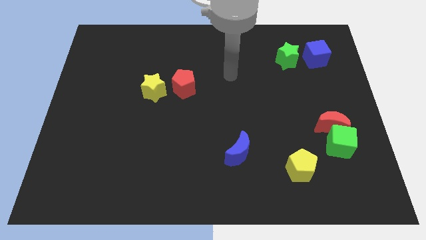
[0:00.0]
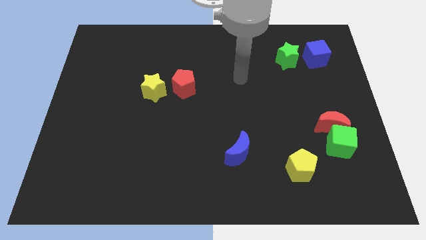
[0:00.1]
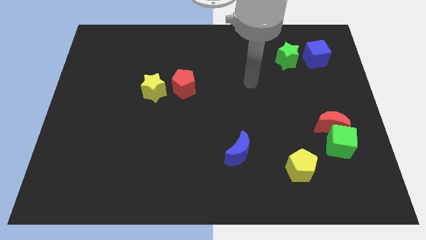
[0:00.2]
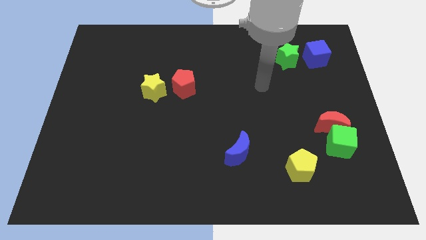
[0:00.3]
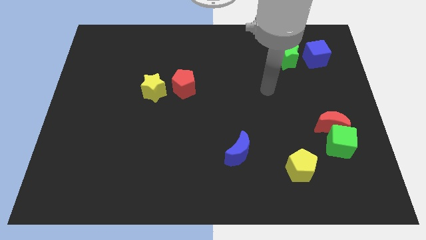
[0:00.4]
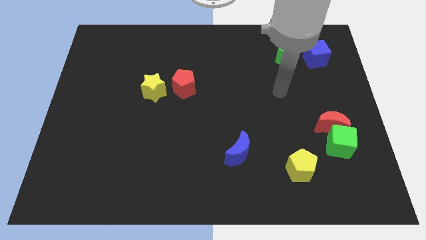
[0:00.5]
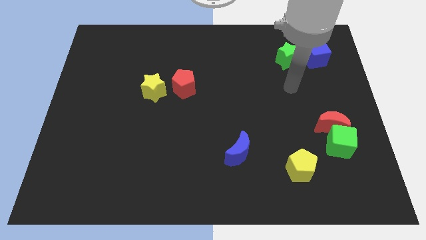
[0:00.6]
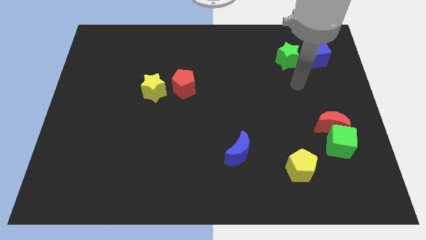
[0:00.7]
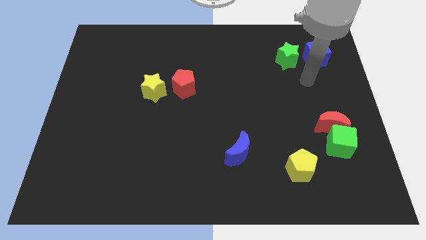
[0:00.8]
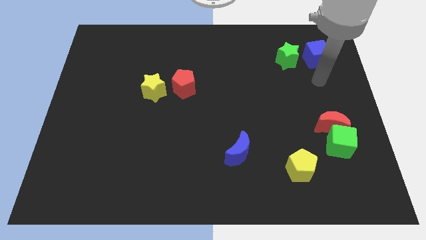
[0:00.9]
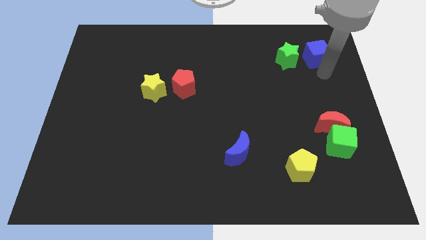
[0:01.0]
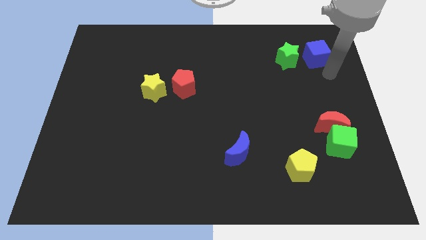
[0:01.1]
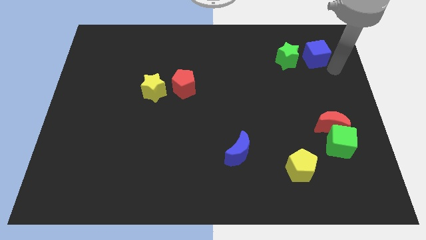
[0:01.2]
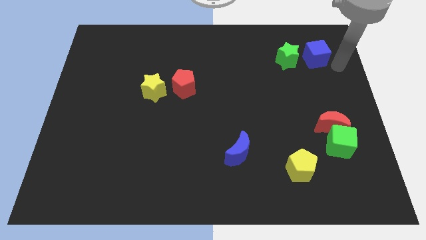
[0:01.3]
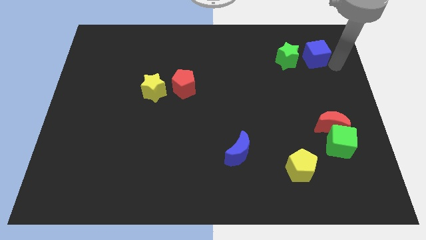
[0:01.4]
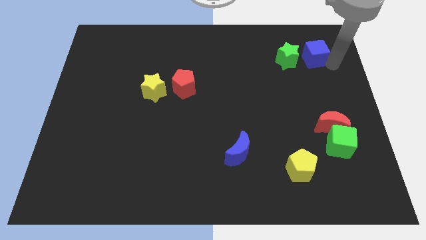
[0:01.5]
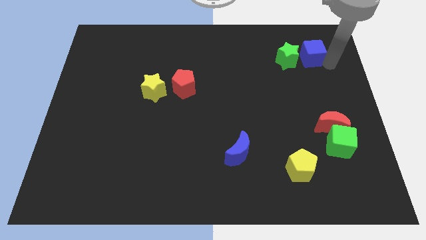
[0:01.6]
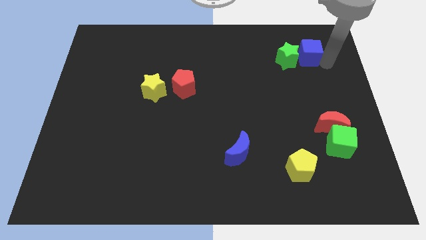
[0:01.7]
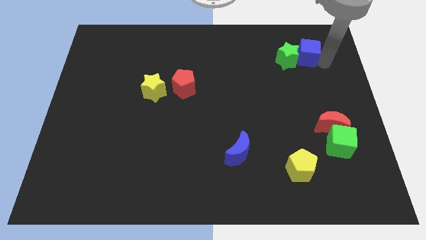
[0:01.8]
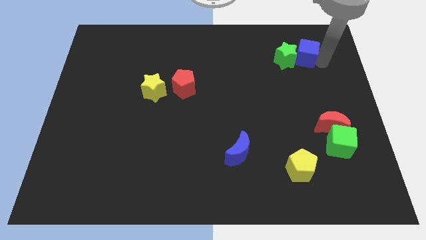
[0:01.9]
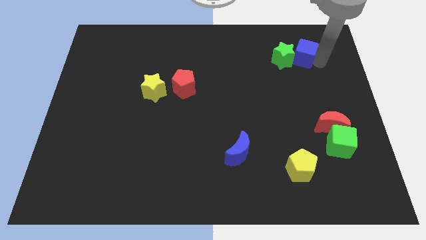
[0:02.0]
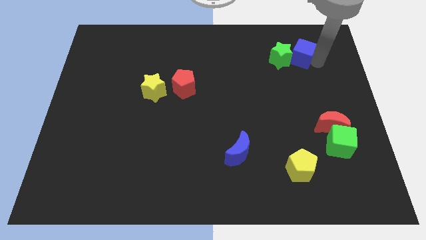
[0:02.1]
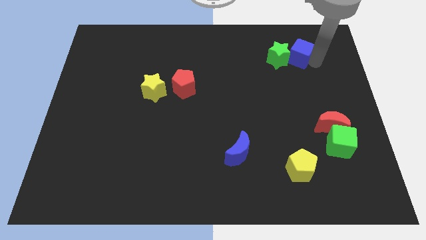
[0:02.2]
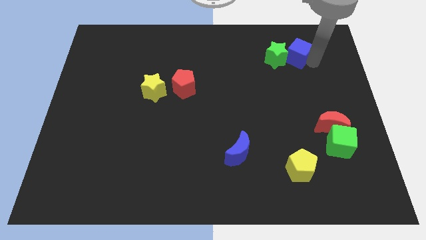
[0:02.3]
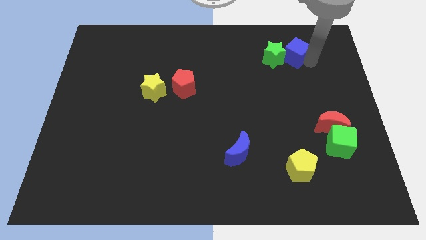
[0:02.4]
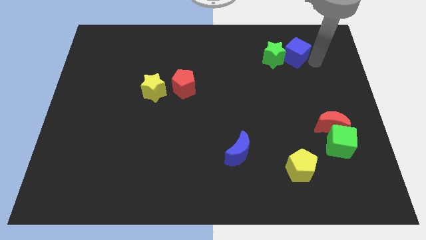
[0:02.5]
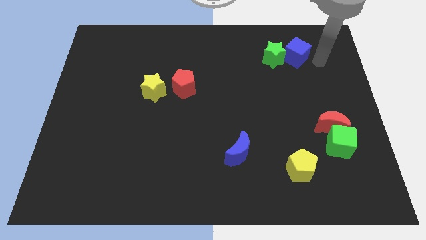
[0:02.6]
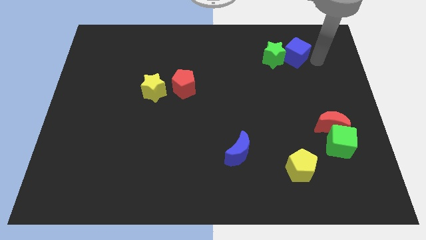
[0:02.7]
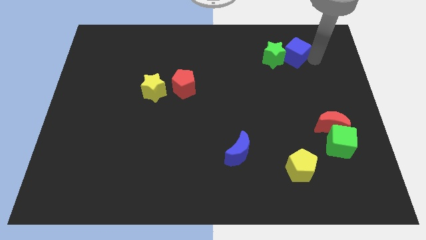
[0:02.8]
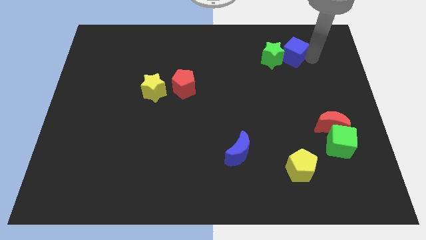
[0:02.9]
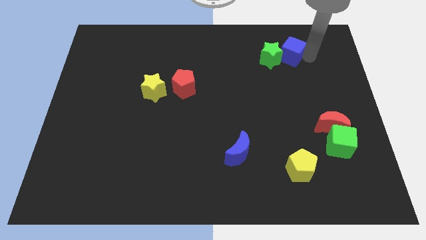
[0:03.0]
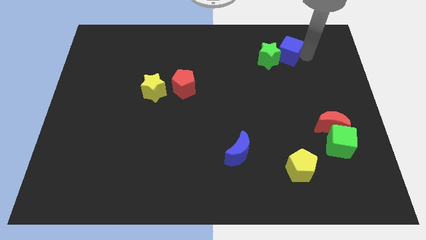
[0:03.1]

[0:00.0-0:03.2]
slightly move the blue cube left

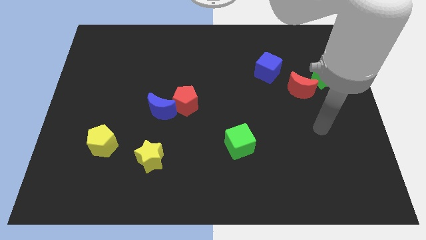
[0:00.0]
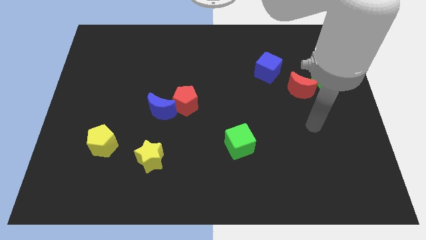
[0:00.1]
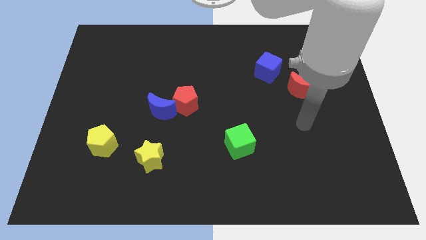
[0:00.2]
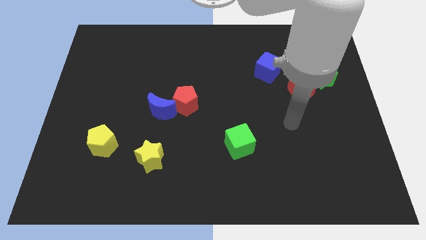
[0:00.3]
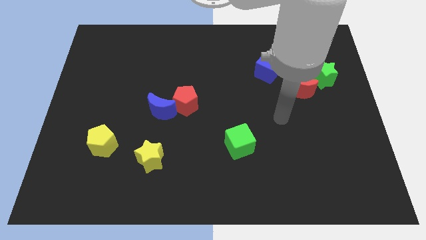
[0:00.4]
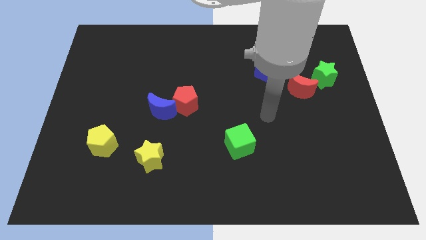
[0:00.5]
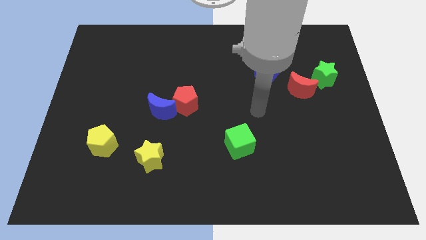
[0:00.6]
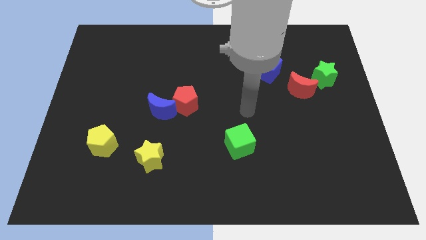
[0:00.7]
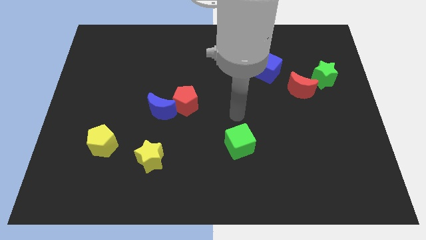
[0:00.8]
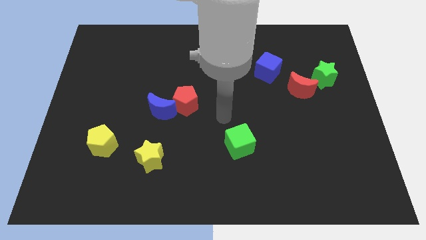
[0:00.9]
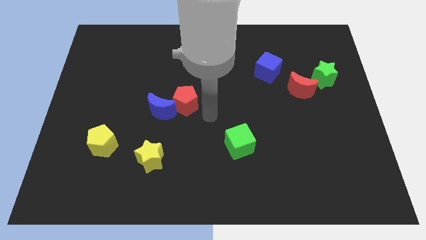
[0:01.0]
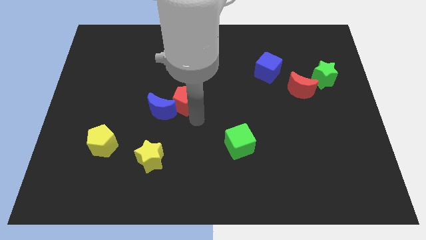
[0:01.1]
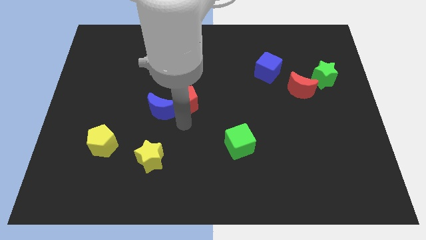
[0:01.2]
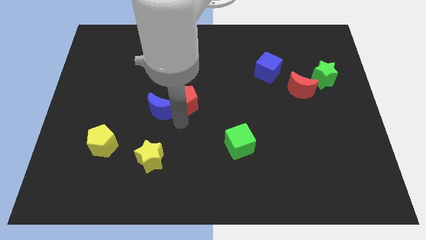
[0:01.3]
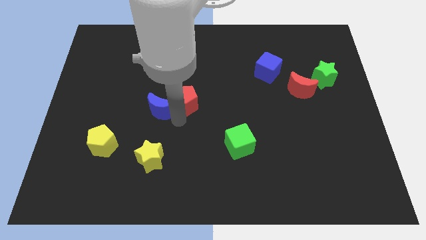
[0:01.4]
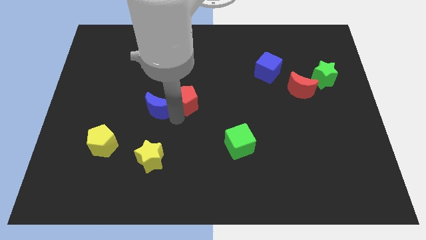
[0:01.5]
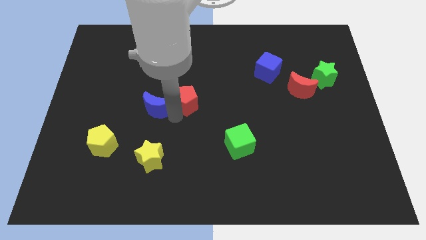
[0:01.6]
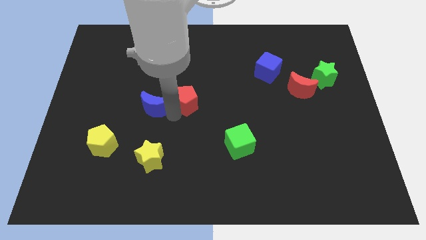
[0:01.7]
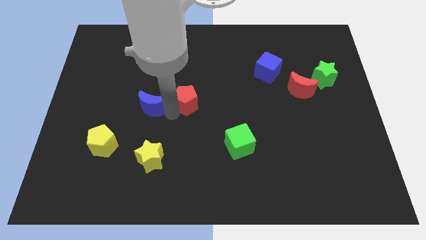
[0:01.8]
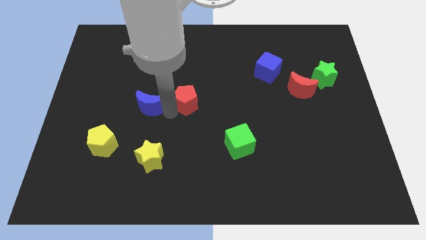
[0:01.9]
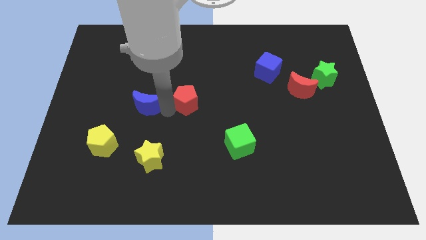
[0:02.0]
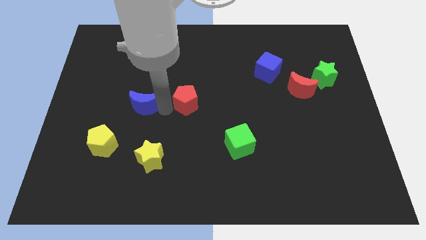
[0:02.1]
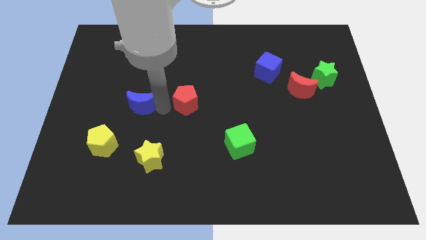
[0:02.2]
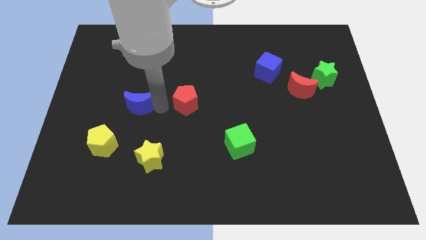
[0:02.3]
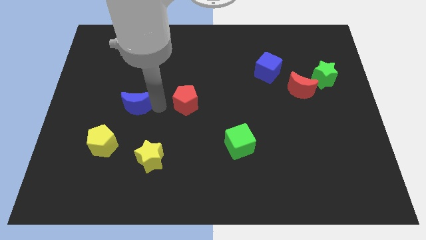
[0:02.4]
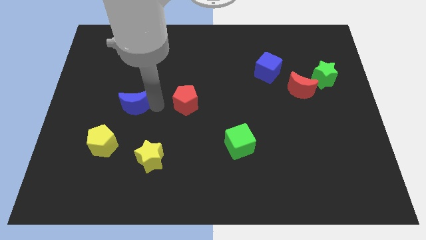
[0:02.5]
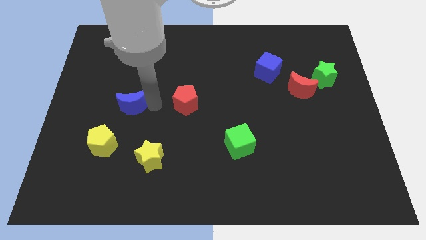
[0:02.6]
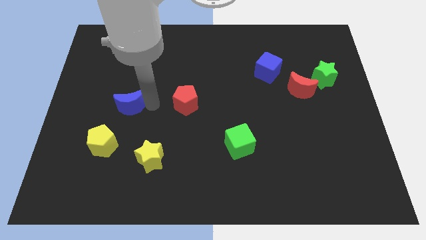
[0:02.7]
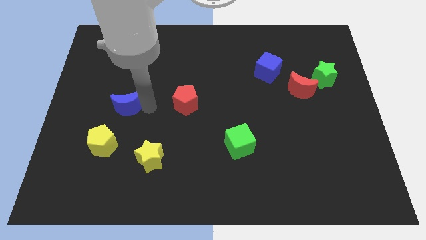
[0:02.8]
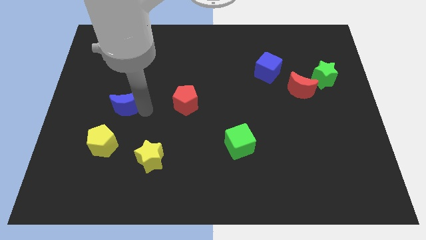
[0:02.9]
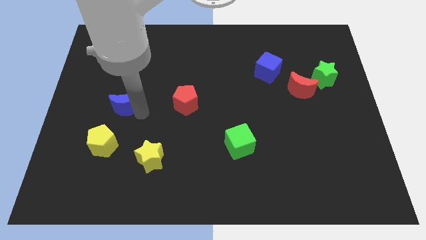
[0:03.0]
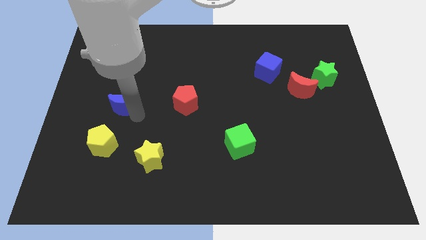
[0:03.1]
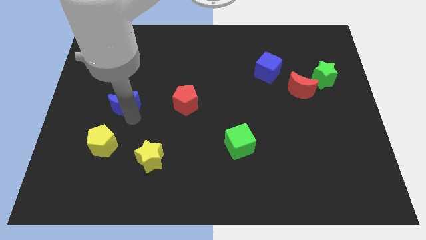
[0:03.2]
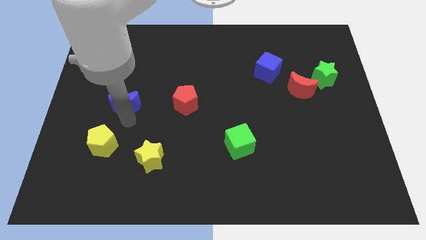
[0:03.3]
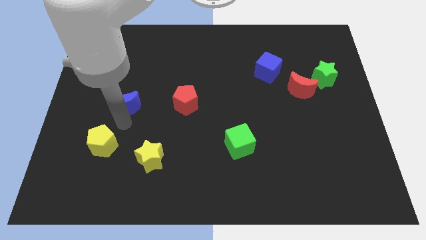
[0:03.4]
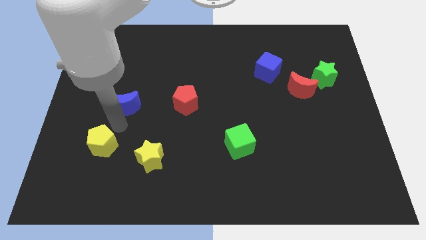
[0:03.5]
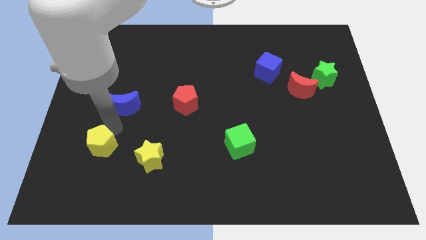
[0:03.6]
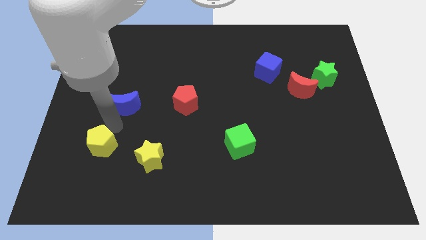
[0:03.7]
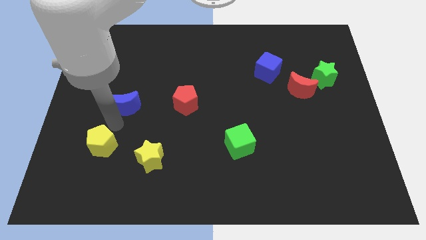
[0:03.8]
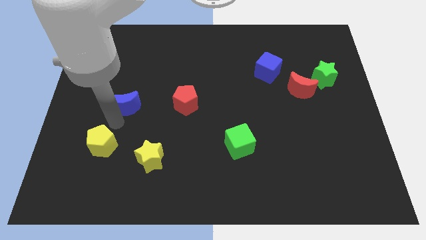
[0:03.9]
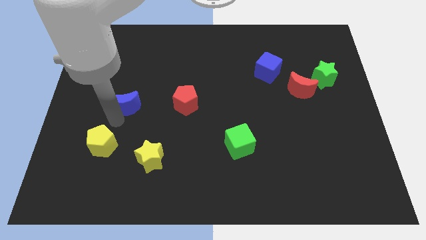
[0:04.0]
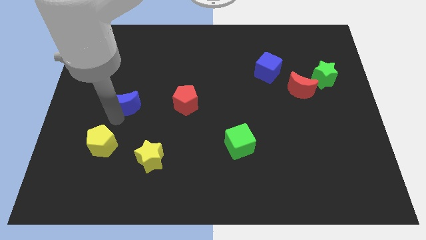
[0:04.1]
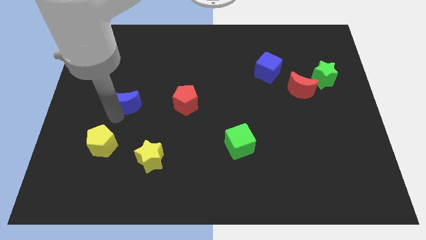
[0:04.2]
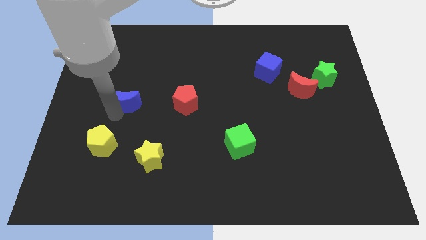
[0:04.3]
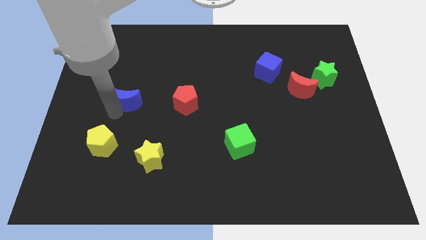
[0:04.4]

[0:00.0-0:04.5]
slide the blue moon diagonally upwards and left a little bit

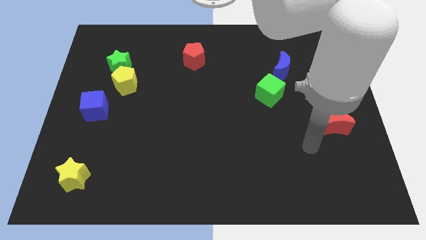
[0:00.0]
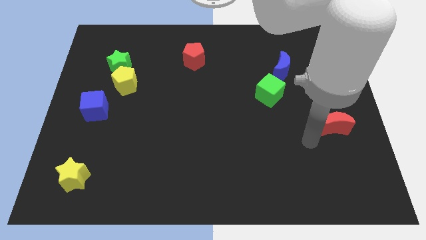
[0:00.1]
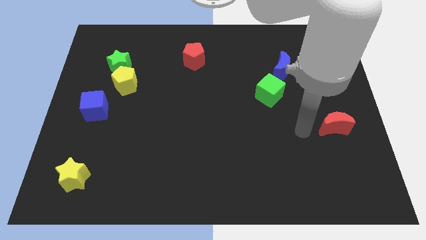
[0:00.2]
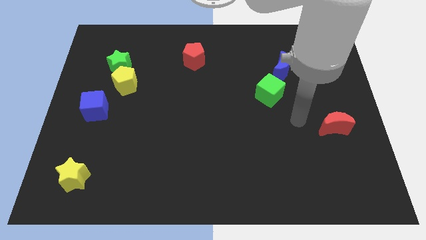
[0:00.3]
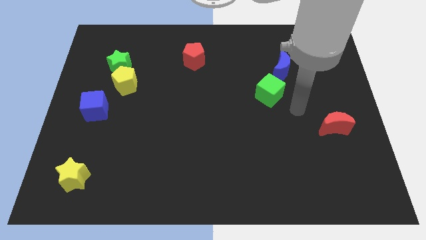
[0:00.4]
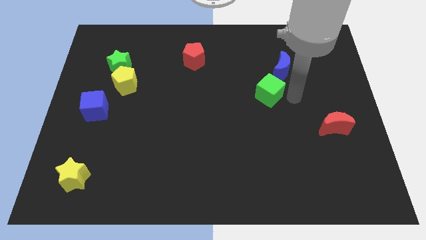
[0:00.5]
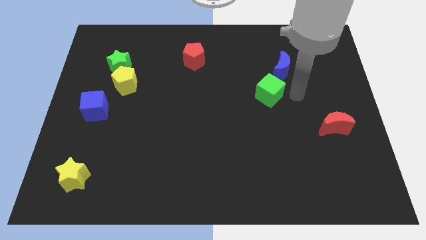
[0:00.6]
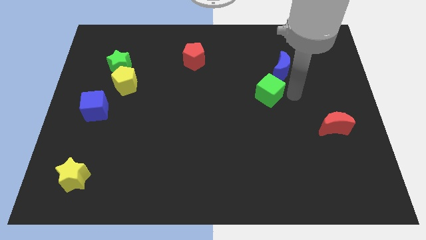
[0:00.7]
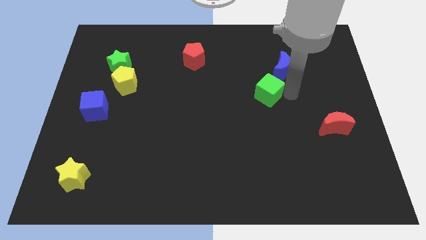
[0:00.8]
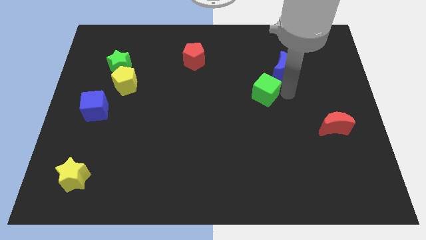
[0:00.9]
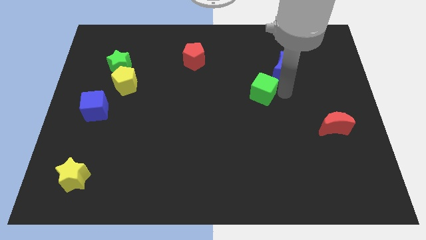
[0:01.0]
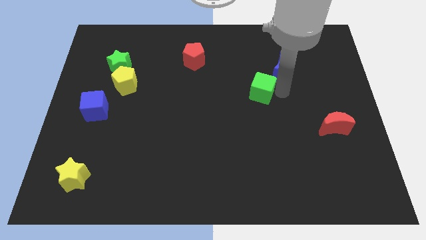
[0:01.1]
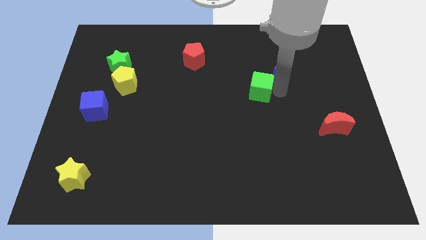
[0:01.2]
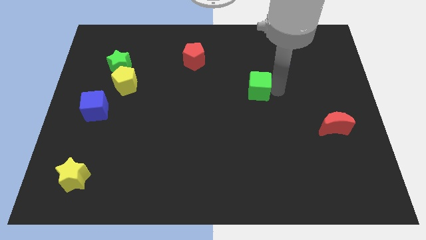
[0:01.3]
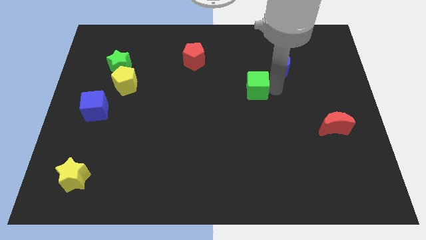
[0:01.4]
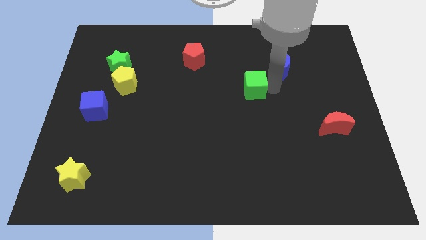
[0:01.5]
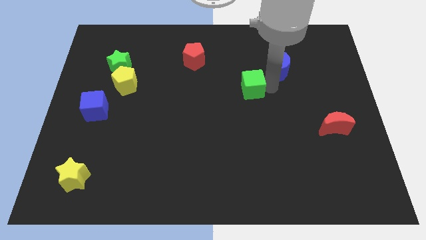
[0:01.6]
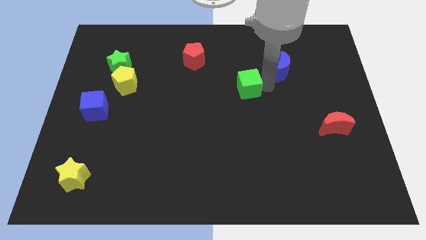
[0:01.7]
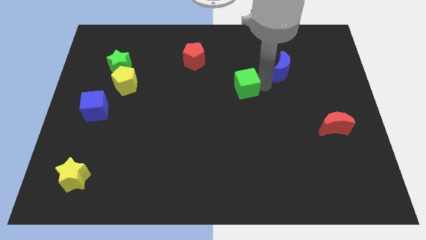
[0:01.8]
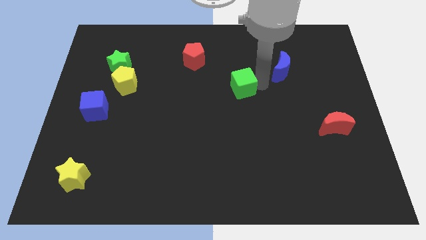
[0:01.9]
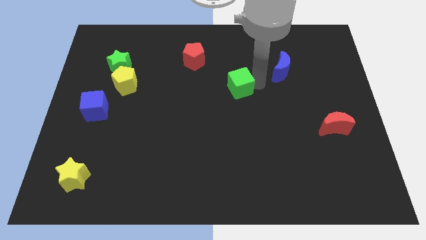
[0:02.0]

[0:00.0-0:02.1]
slightly push the green cube left
